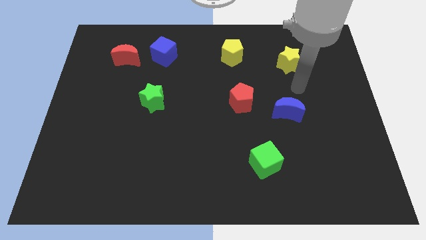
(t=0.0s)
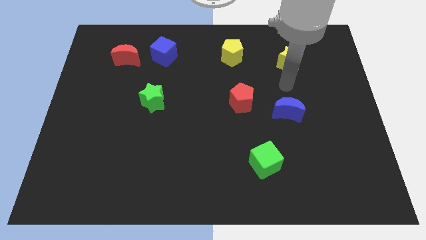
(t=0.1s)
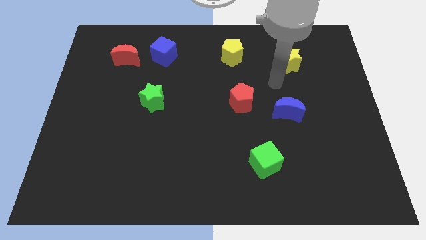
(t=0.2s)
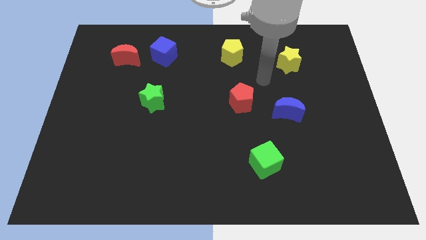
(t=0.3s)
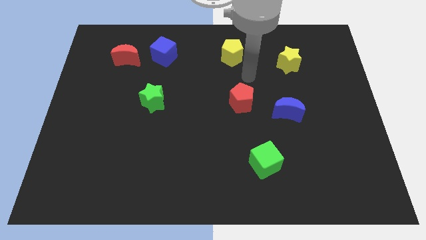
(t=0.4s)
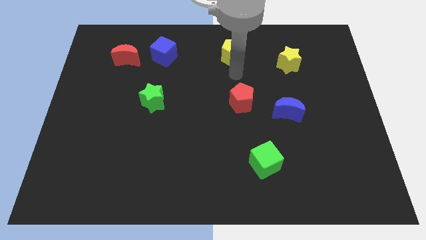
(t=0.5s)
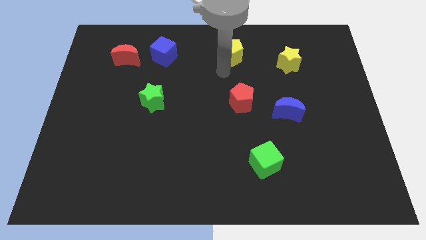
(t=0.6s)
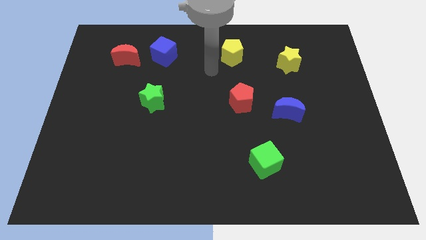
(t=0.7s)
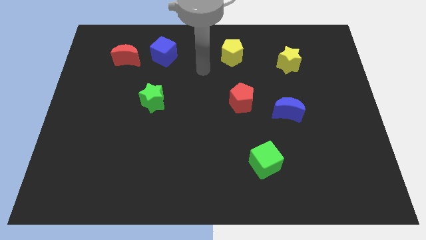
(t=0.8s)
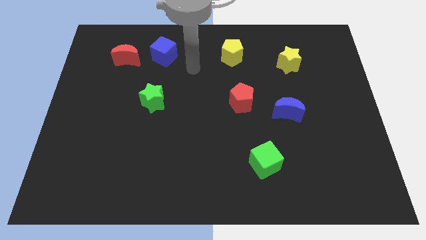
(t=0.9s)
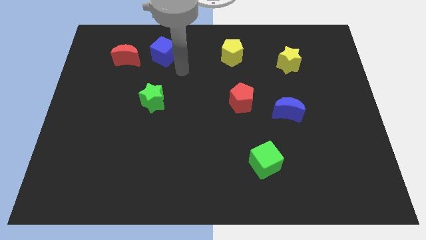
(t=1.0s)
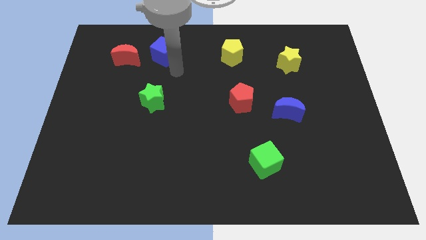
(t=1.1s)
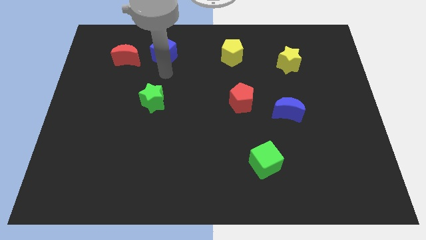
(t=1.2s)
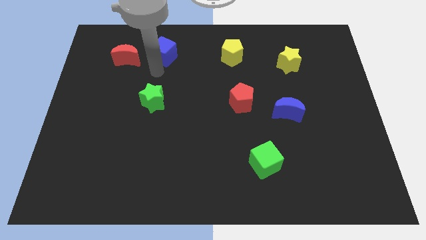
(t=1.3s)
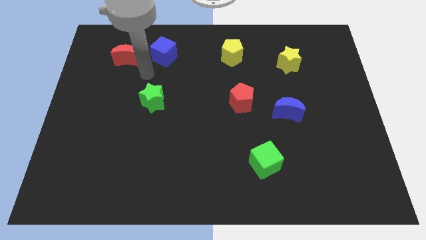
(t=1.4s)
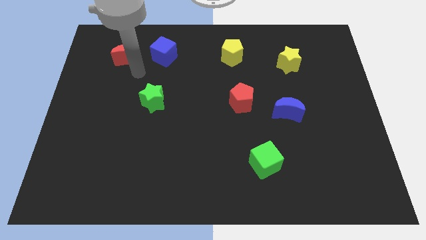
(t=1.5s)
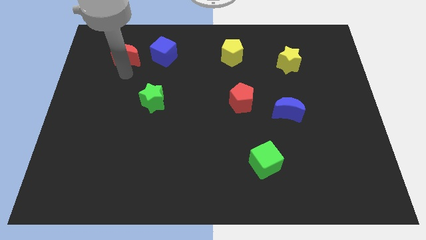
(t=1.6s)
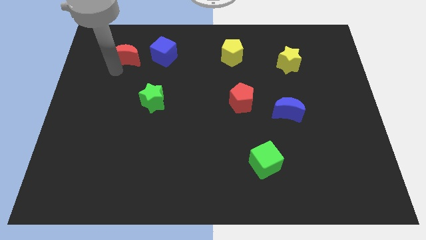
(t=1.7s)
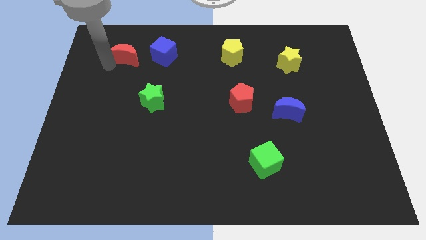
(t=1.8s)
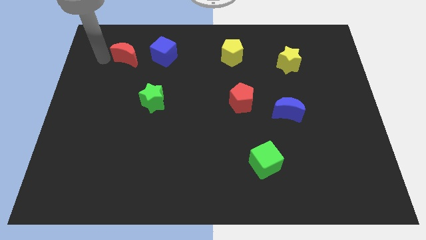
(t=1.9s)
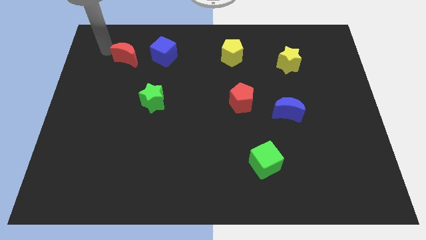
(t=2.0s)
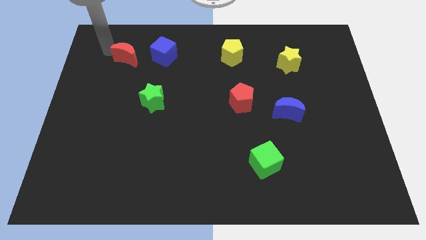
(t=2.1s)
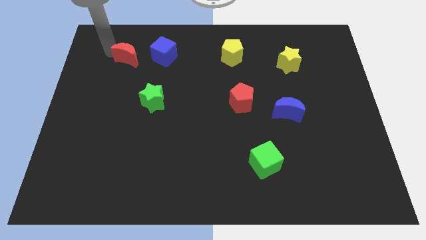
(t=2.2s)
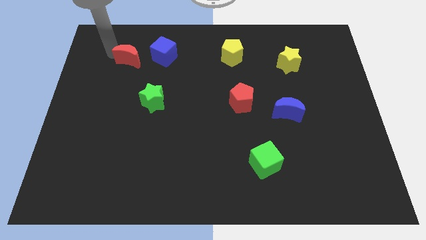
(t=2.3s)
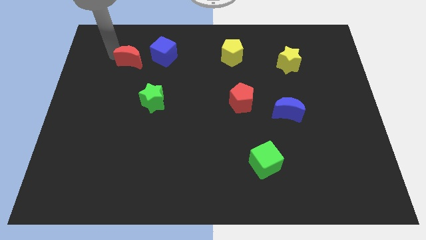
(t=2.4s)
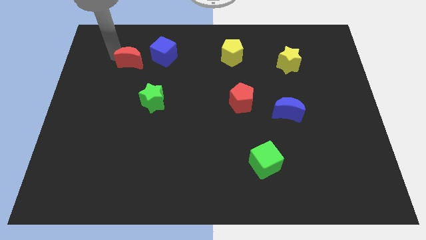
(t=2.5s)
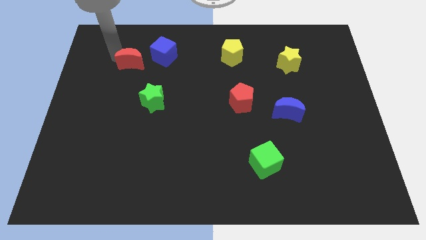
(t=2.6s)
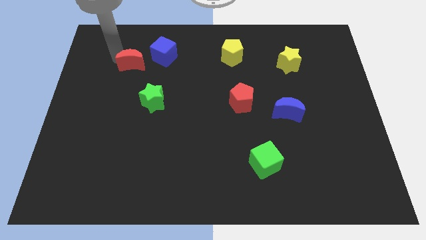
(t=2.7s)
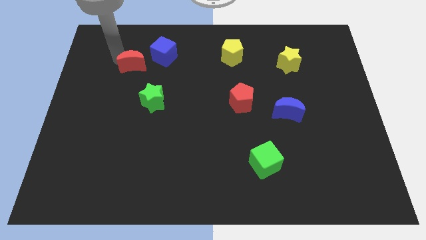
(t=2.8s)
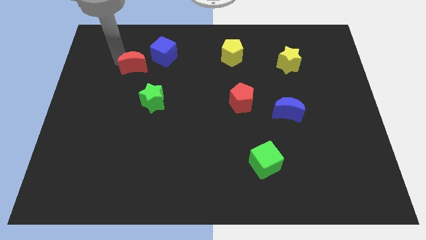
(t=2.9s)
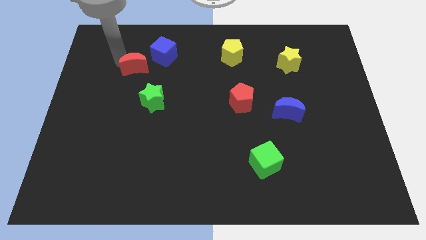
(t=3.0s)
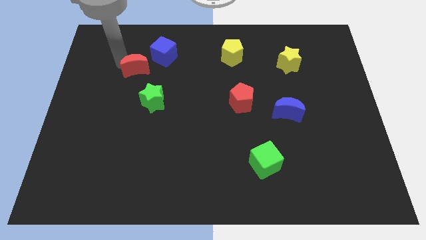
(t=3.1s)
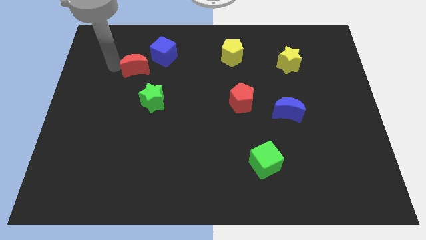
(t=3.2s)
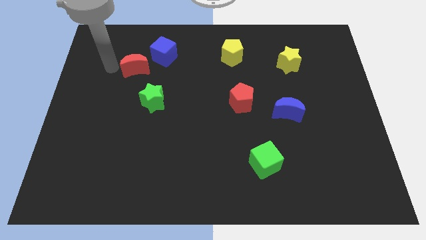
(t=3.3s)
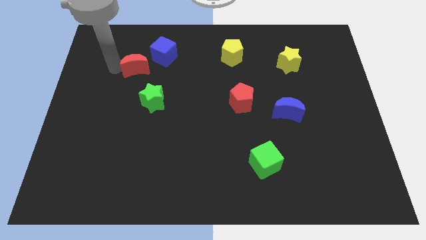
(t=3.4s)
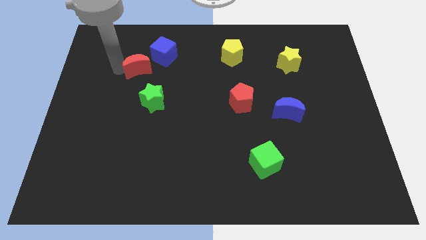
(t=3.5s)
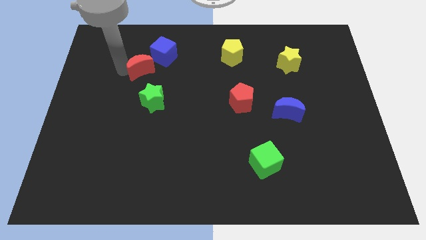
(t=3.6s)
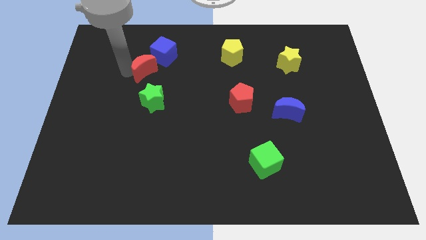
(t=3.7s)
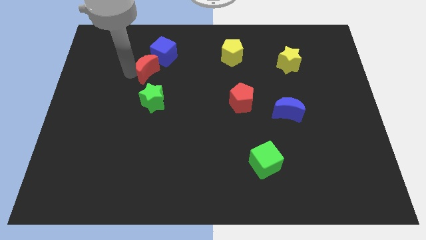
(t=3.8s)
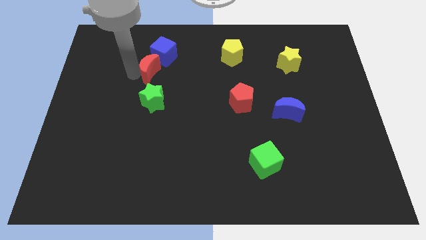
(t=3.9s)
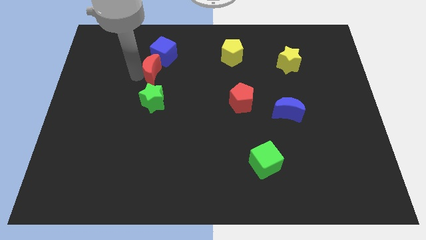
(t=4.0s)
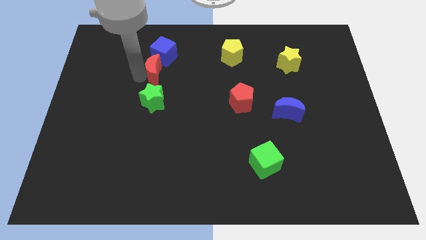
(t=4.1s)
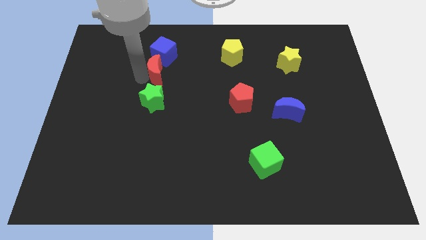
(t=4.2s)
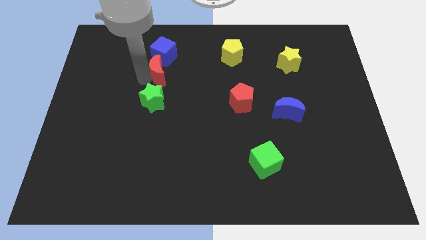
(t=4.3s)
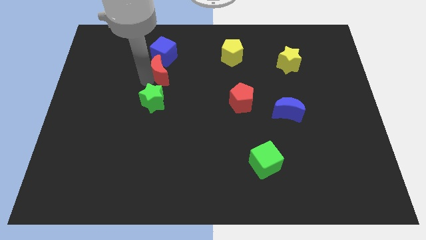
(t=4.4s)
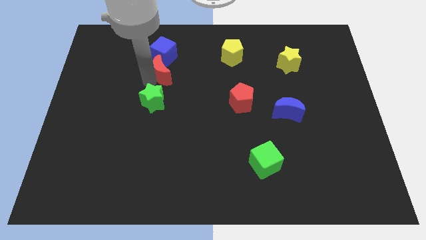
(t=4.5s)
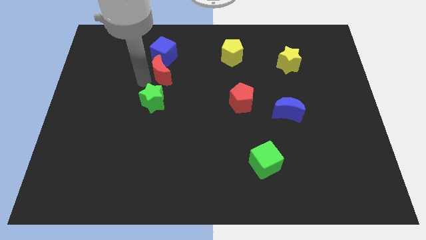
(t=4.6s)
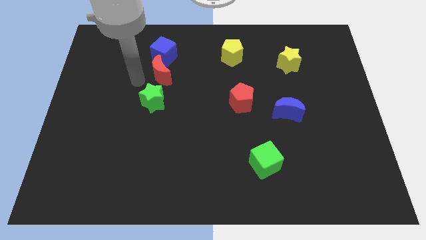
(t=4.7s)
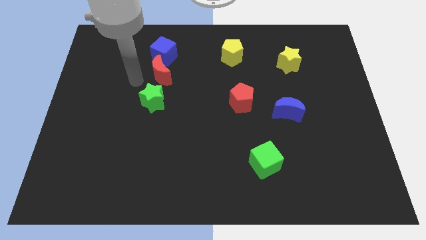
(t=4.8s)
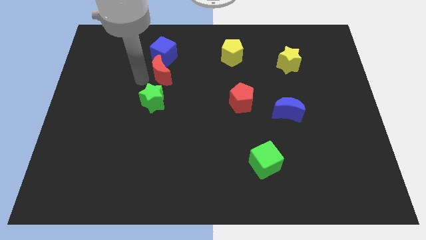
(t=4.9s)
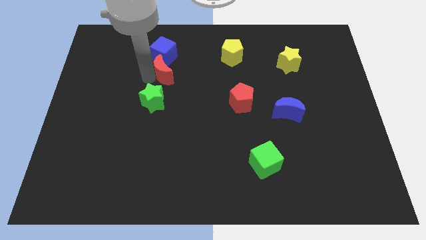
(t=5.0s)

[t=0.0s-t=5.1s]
push the red moon to the bottom right of the blue cube

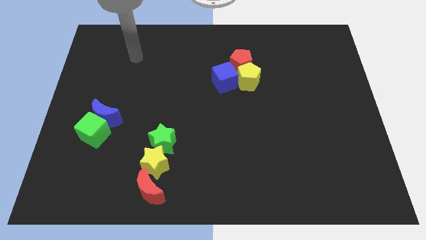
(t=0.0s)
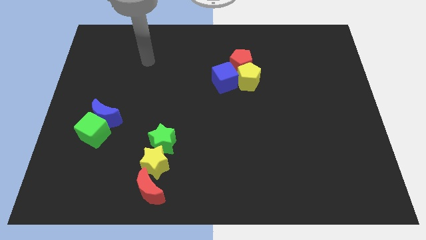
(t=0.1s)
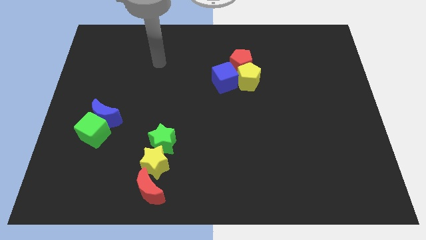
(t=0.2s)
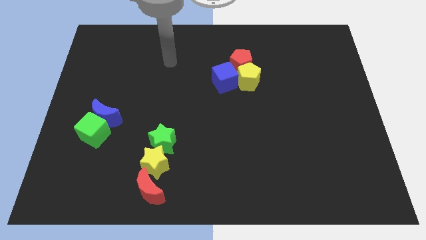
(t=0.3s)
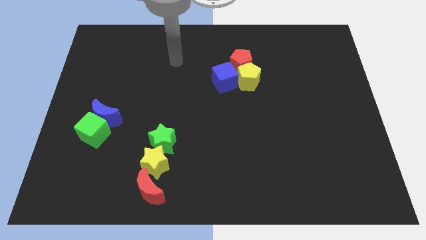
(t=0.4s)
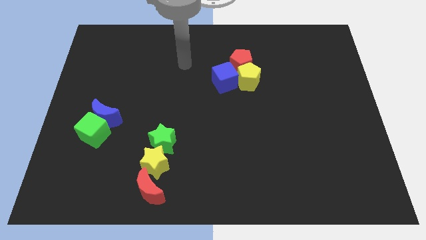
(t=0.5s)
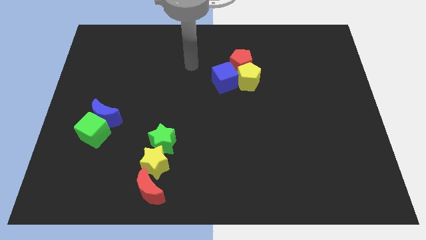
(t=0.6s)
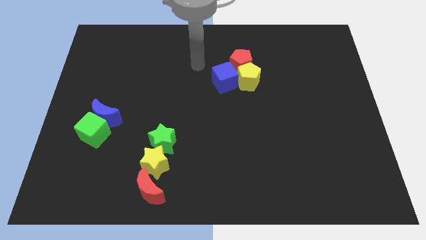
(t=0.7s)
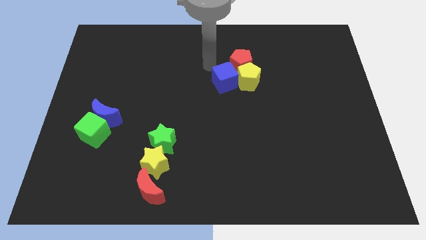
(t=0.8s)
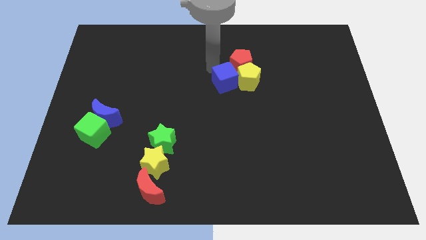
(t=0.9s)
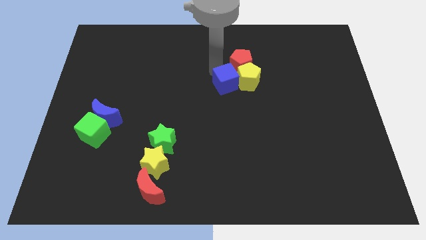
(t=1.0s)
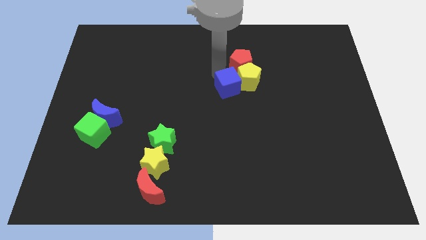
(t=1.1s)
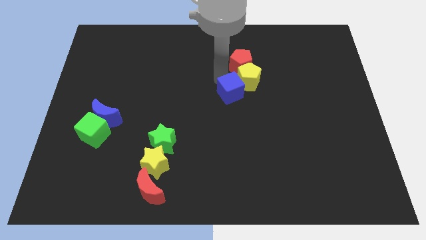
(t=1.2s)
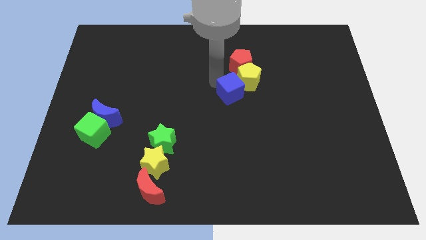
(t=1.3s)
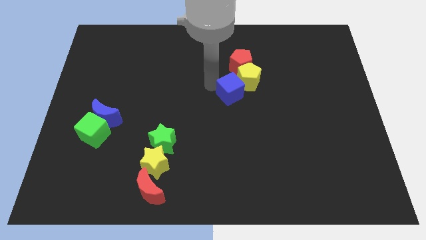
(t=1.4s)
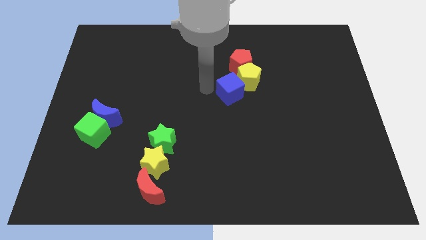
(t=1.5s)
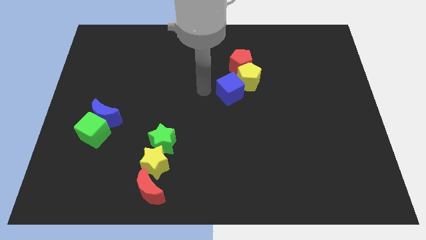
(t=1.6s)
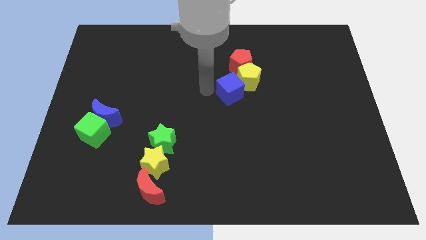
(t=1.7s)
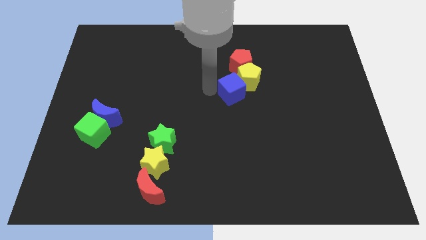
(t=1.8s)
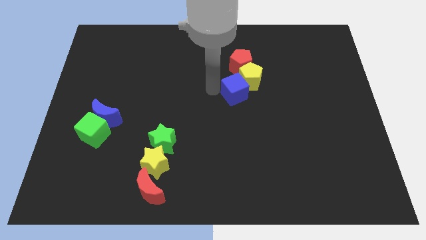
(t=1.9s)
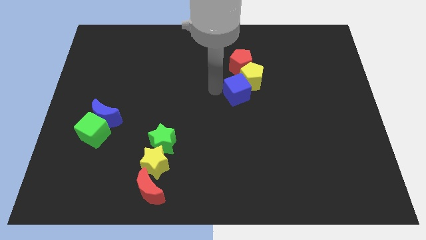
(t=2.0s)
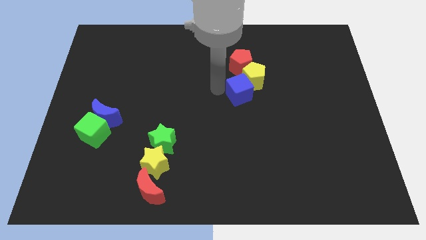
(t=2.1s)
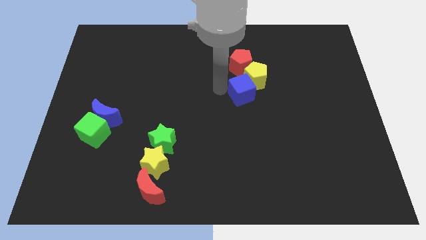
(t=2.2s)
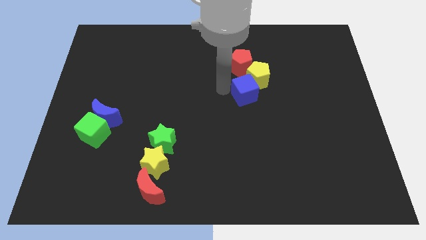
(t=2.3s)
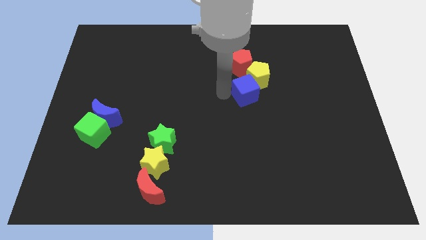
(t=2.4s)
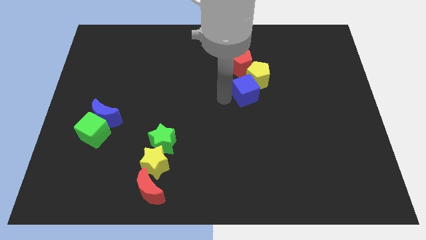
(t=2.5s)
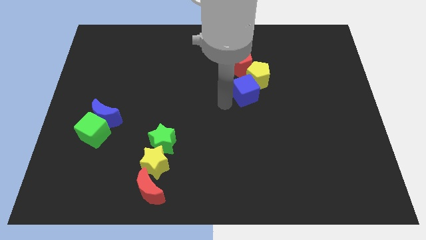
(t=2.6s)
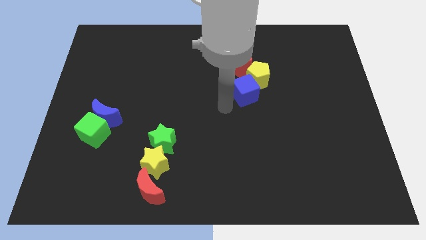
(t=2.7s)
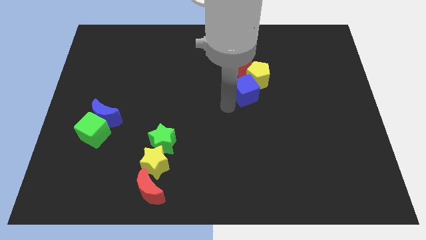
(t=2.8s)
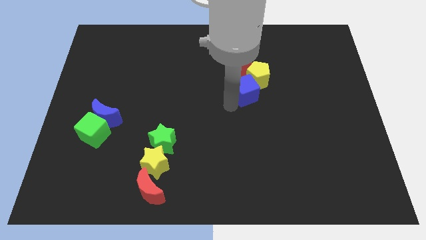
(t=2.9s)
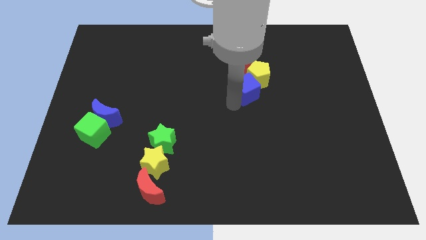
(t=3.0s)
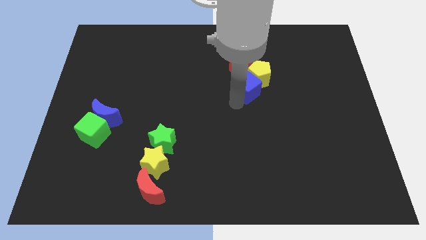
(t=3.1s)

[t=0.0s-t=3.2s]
push the blue cube to the bottom right of the red pentagon

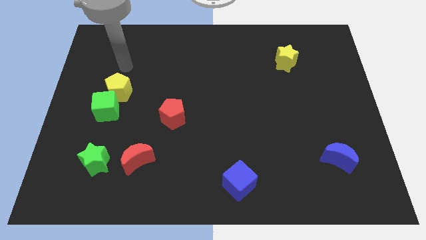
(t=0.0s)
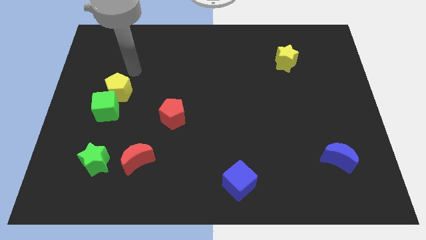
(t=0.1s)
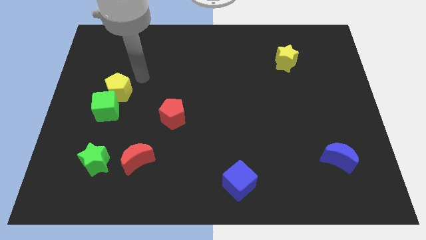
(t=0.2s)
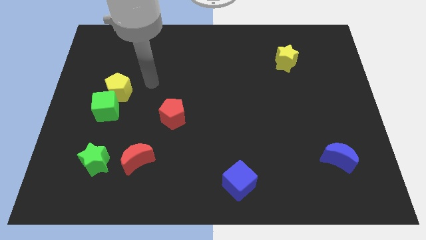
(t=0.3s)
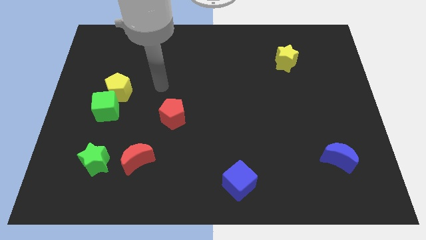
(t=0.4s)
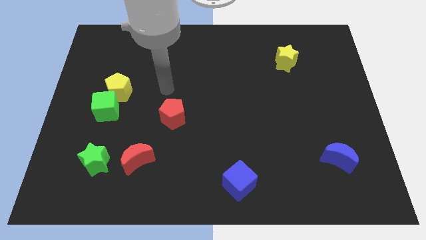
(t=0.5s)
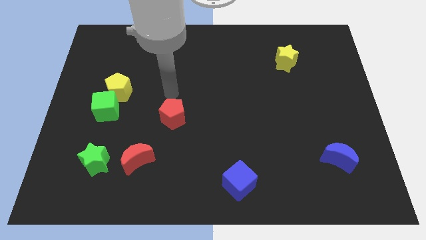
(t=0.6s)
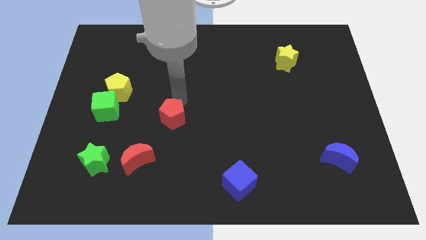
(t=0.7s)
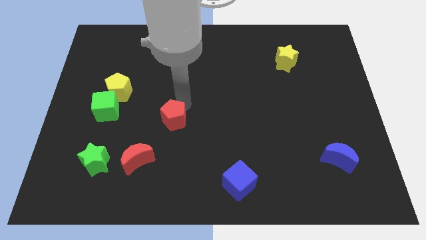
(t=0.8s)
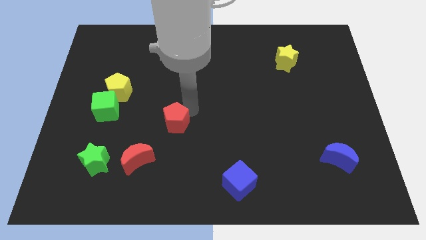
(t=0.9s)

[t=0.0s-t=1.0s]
push the red moon to the bottom left of the red pentagon
